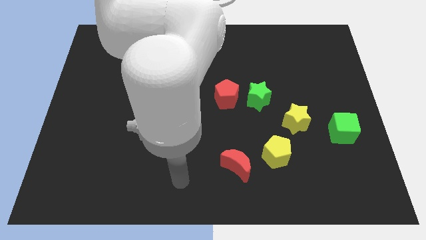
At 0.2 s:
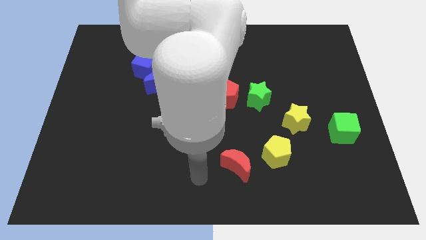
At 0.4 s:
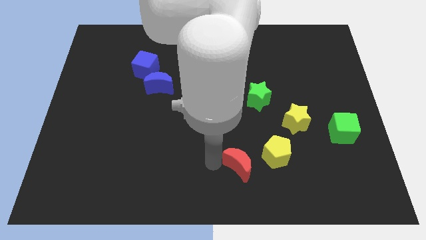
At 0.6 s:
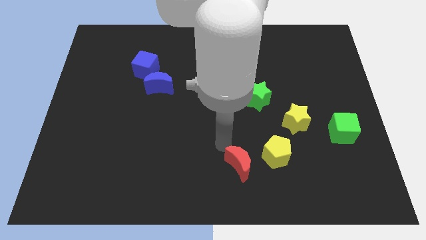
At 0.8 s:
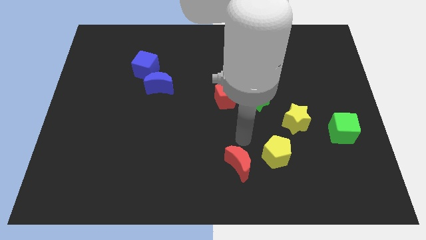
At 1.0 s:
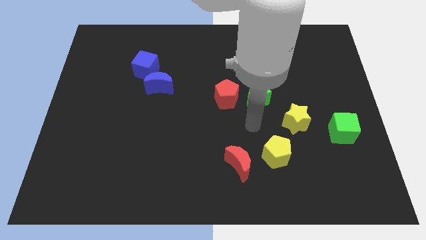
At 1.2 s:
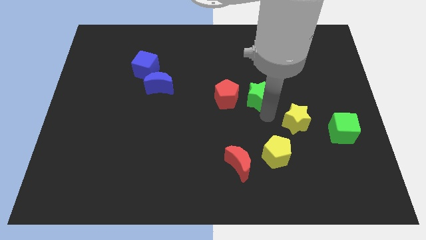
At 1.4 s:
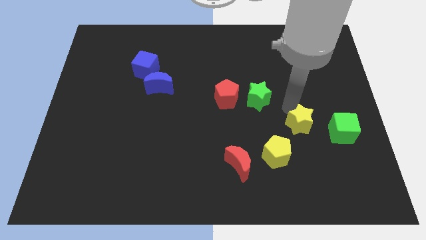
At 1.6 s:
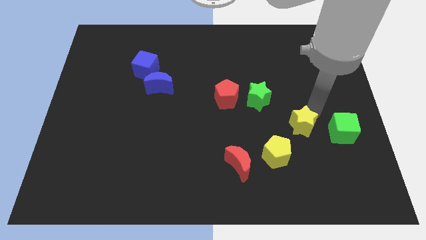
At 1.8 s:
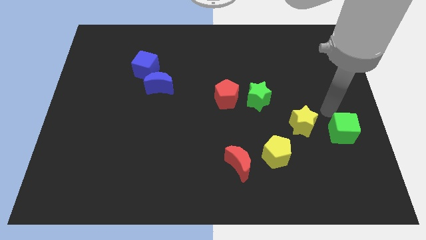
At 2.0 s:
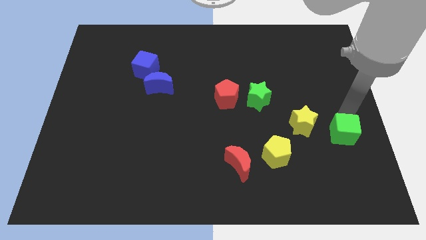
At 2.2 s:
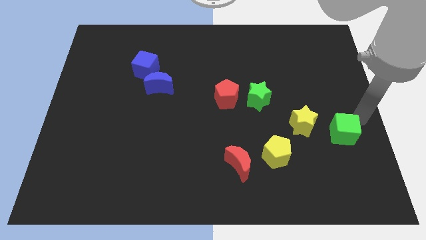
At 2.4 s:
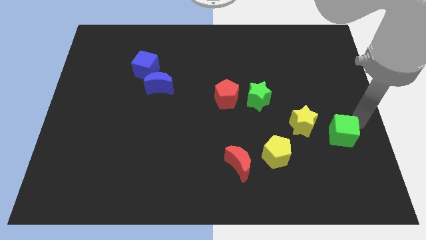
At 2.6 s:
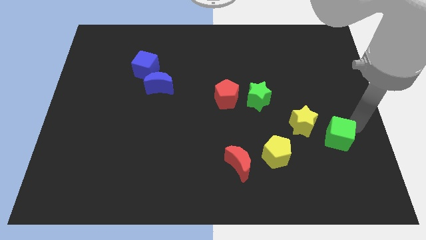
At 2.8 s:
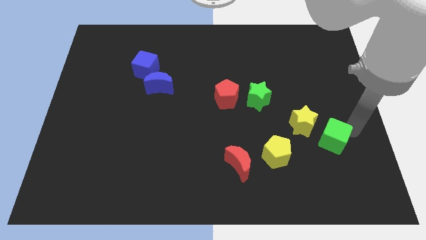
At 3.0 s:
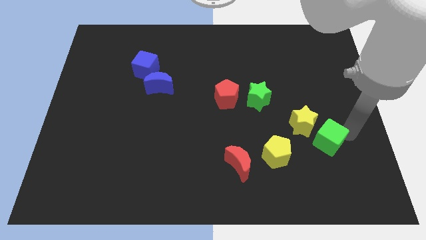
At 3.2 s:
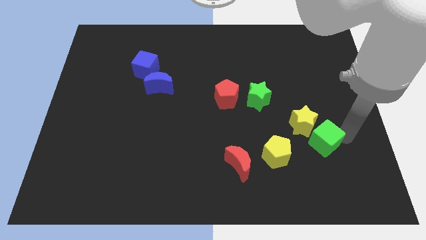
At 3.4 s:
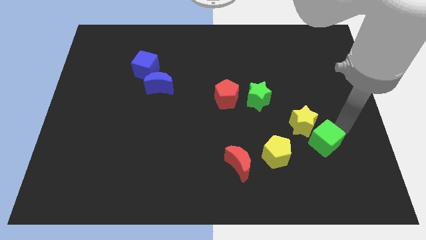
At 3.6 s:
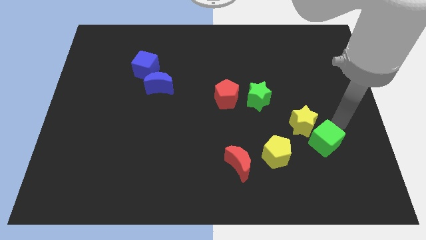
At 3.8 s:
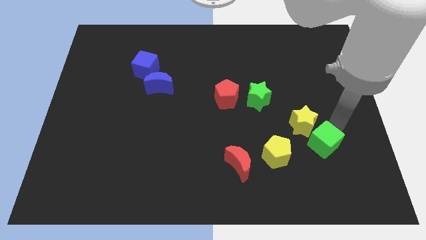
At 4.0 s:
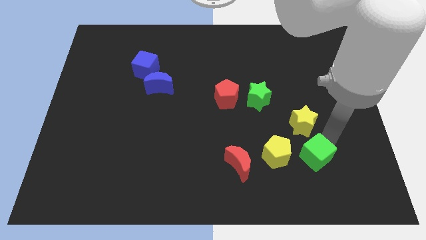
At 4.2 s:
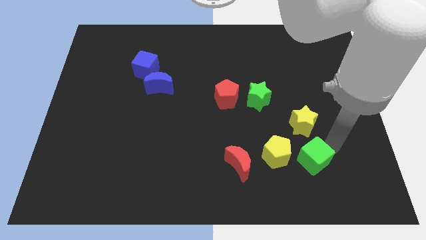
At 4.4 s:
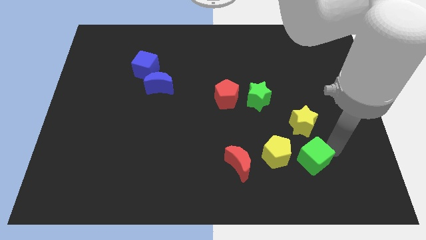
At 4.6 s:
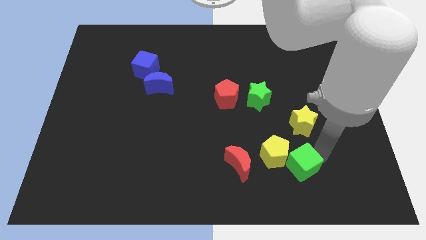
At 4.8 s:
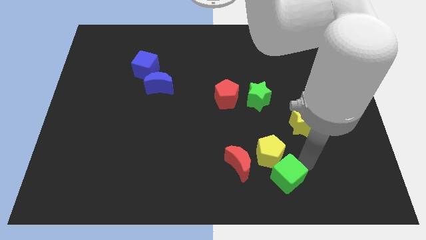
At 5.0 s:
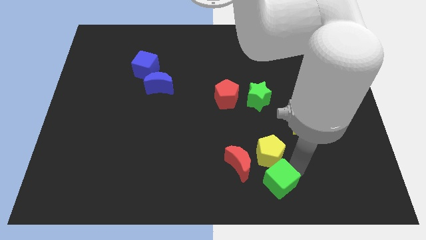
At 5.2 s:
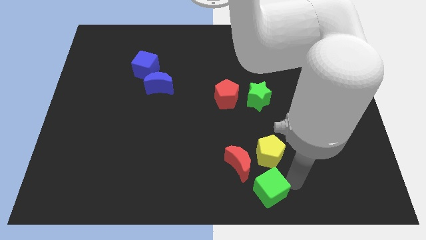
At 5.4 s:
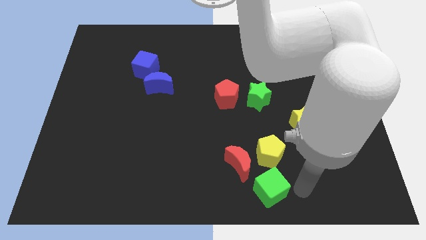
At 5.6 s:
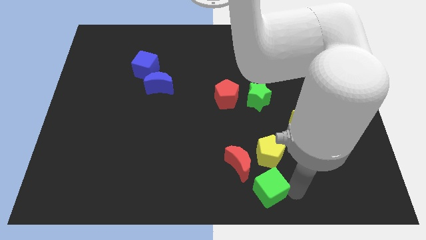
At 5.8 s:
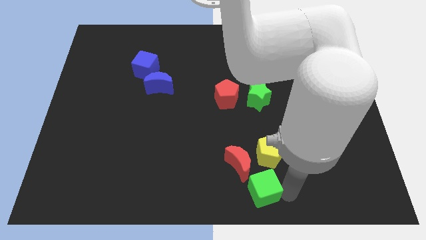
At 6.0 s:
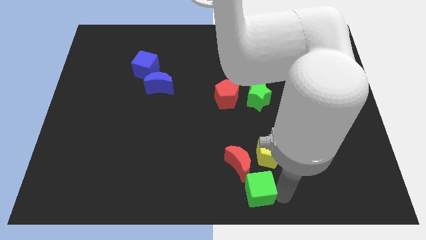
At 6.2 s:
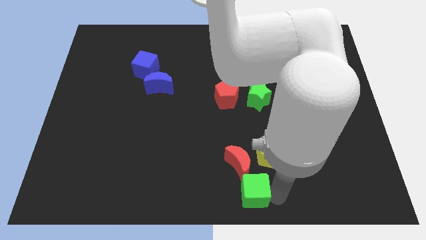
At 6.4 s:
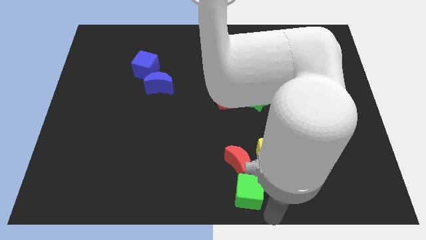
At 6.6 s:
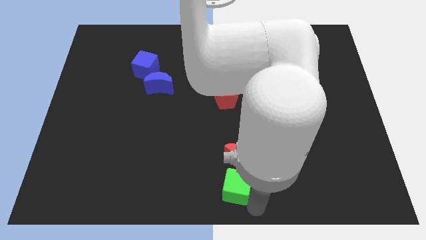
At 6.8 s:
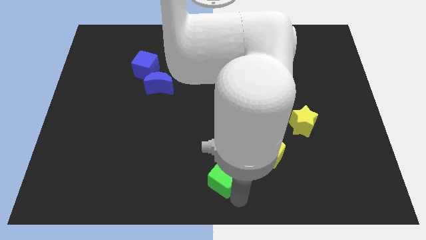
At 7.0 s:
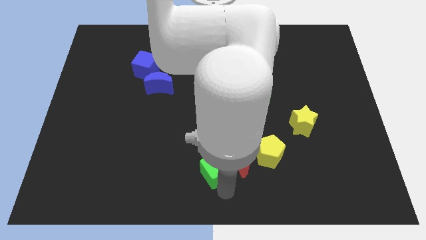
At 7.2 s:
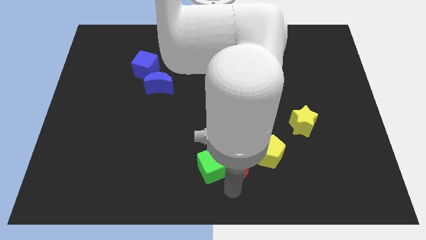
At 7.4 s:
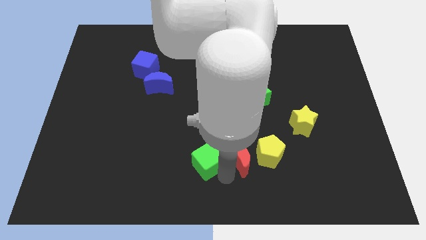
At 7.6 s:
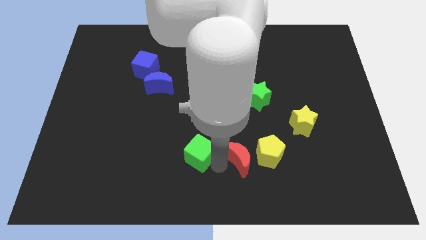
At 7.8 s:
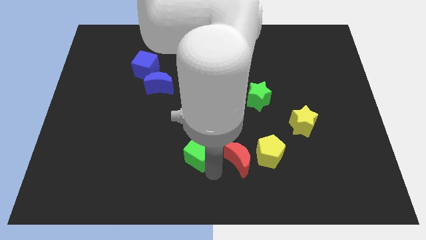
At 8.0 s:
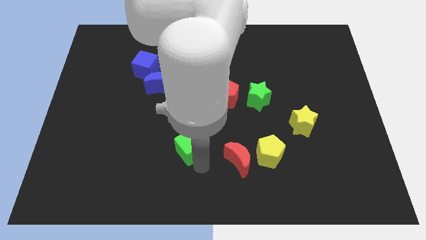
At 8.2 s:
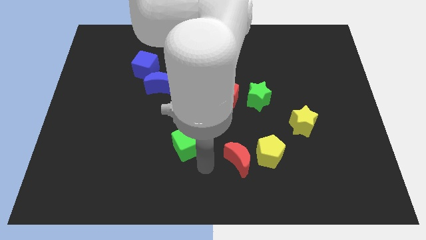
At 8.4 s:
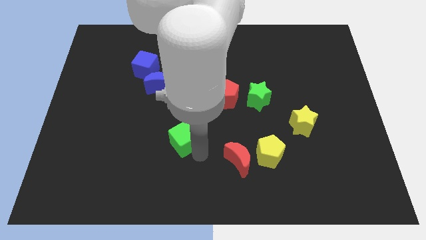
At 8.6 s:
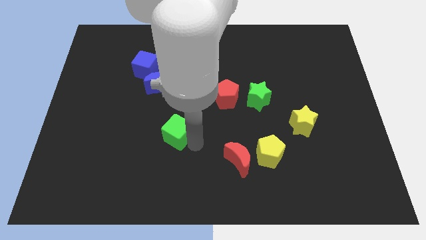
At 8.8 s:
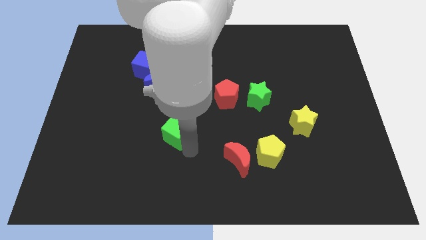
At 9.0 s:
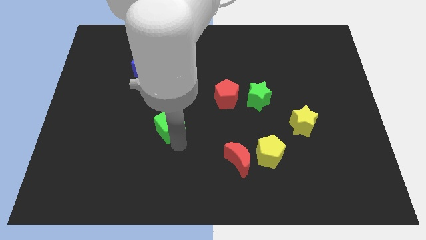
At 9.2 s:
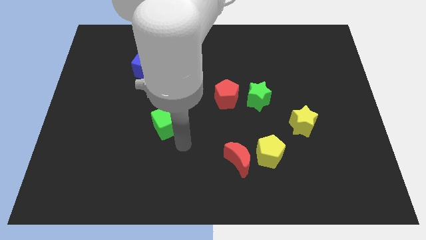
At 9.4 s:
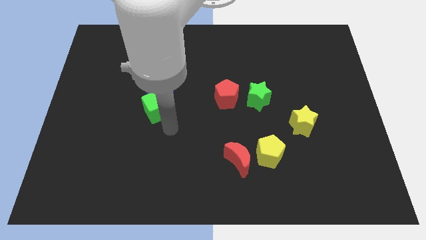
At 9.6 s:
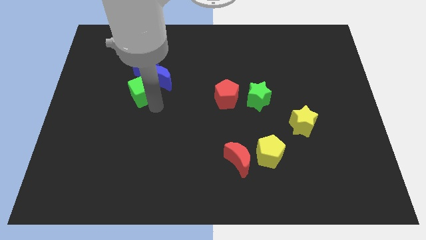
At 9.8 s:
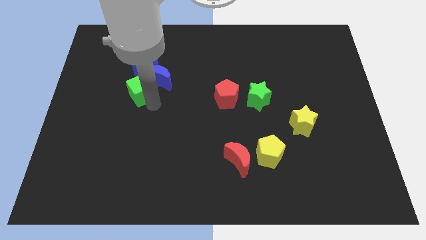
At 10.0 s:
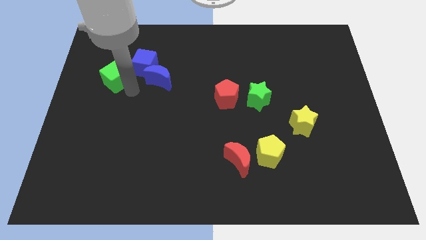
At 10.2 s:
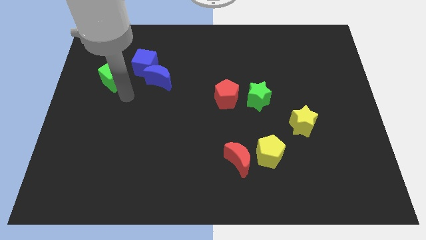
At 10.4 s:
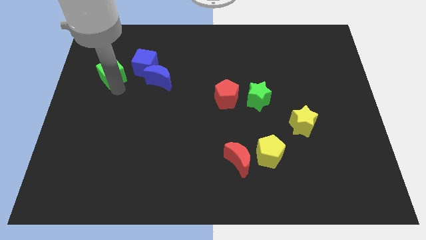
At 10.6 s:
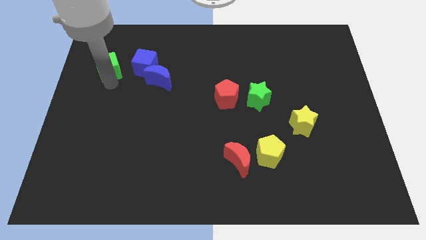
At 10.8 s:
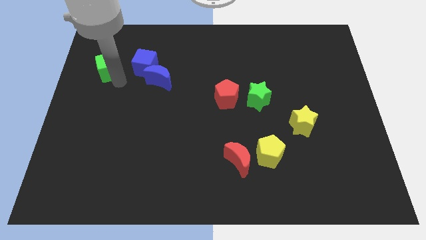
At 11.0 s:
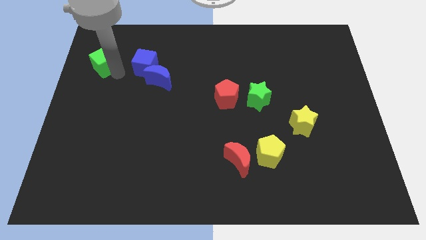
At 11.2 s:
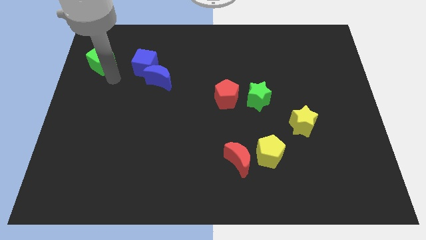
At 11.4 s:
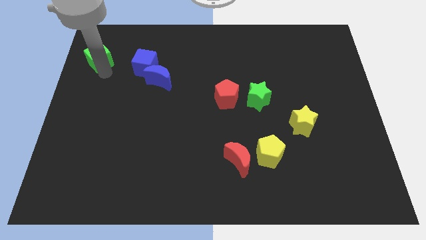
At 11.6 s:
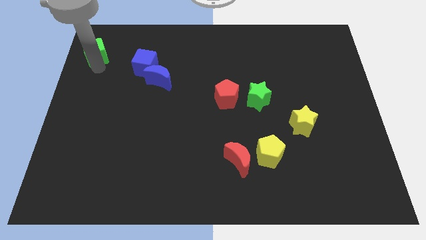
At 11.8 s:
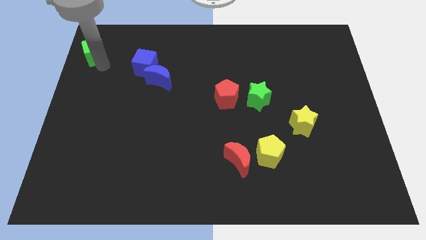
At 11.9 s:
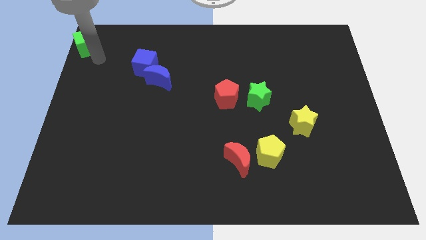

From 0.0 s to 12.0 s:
move the green cube to the top left

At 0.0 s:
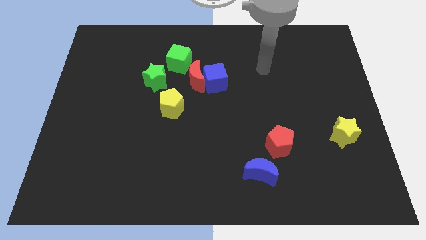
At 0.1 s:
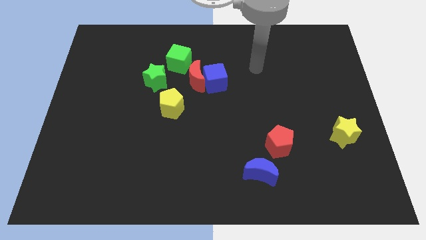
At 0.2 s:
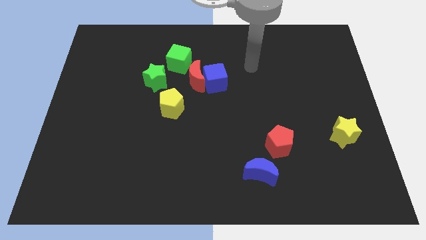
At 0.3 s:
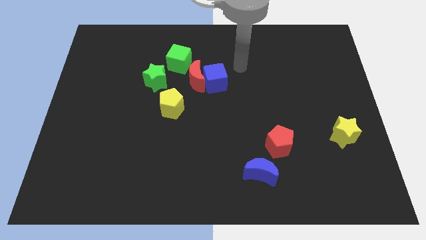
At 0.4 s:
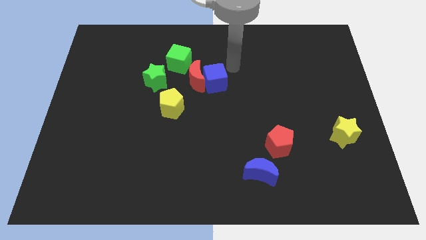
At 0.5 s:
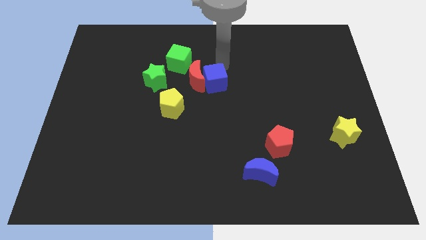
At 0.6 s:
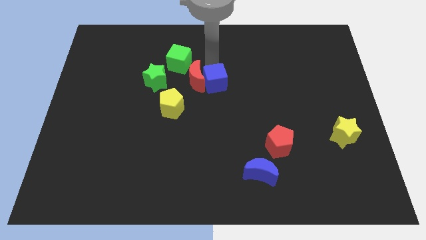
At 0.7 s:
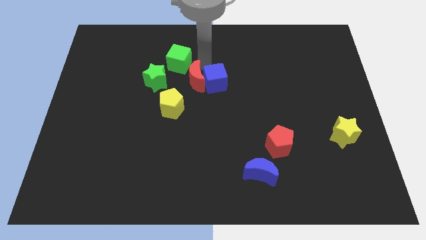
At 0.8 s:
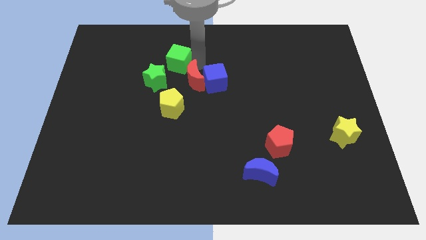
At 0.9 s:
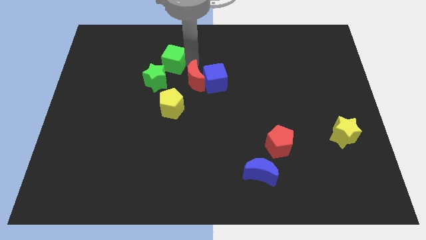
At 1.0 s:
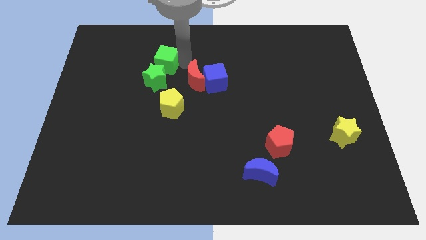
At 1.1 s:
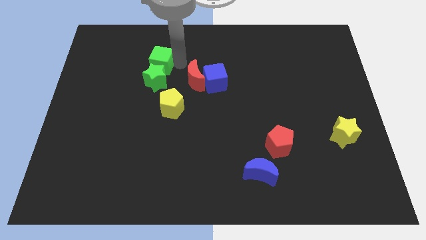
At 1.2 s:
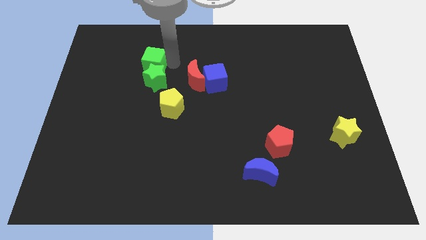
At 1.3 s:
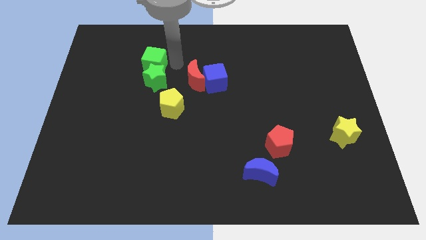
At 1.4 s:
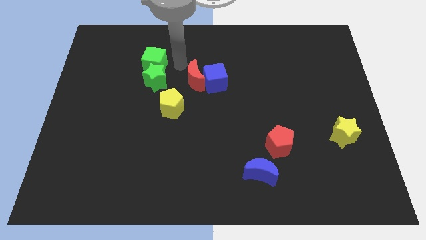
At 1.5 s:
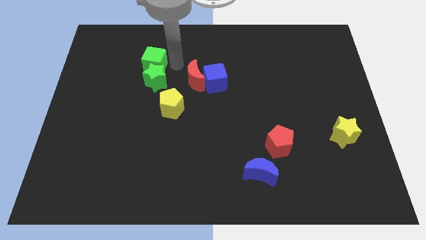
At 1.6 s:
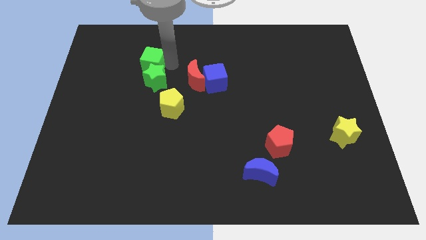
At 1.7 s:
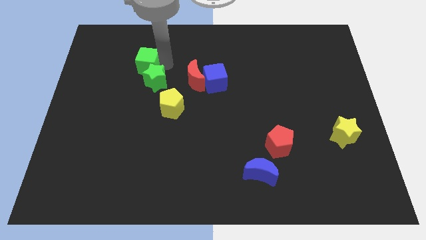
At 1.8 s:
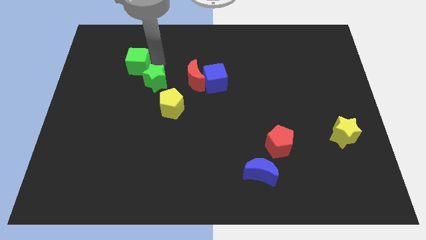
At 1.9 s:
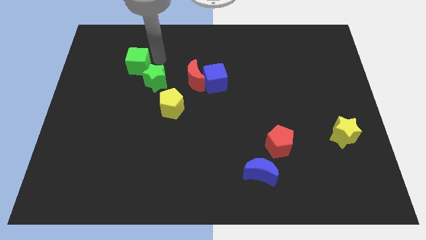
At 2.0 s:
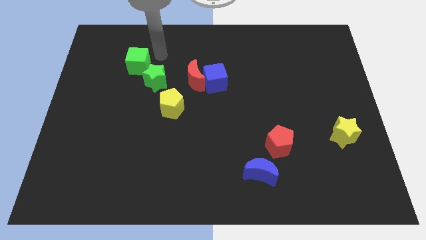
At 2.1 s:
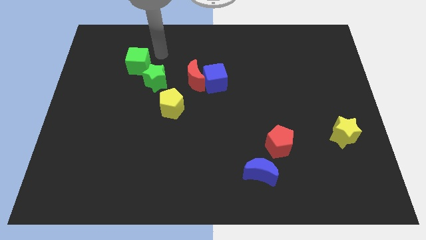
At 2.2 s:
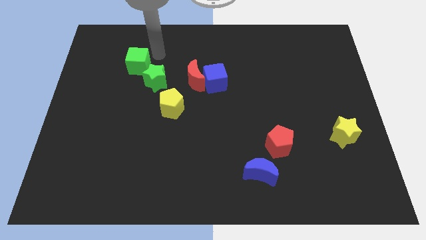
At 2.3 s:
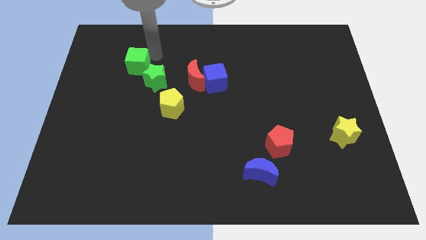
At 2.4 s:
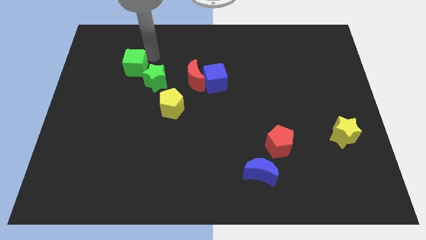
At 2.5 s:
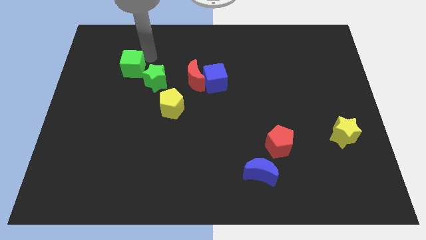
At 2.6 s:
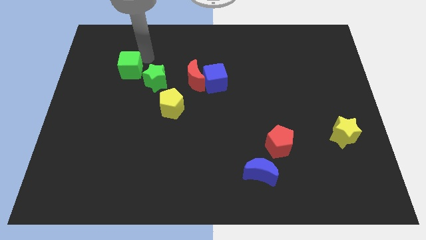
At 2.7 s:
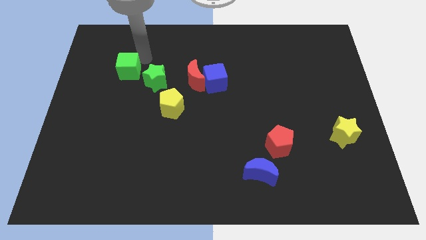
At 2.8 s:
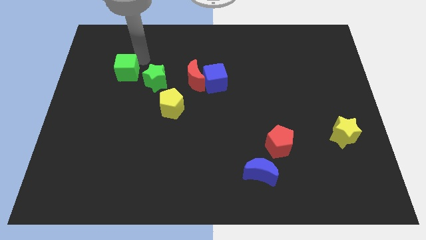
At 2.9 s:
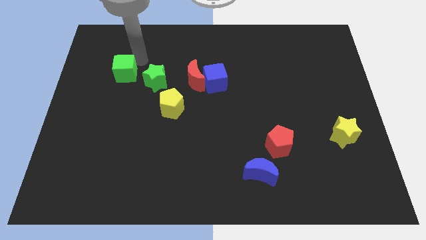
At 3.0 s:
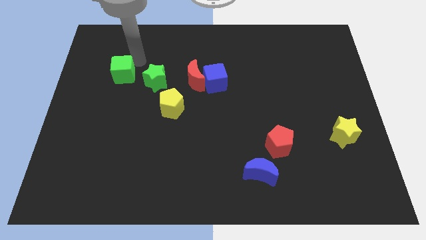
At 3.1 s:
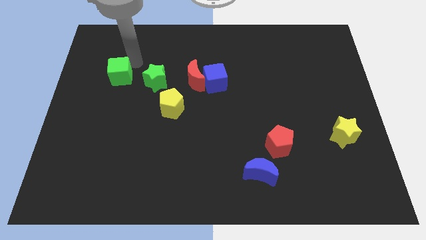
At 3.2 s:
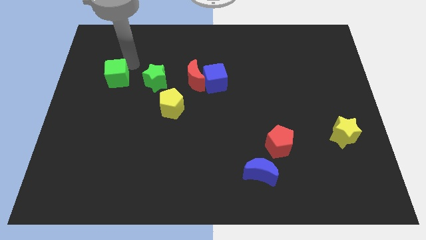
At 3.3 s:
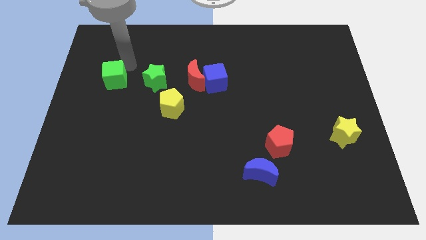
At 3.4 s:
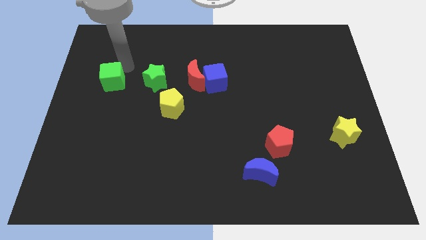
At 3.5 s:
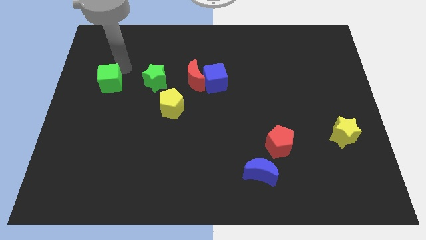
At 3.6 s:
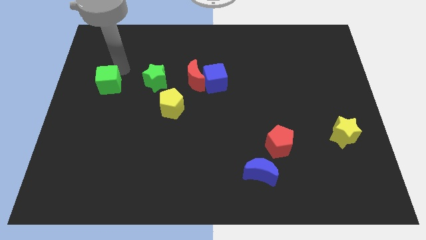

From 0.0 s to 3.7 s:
put the green cube to the left side of the board
